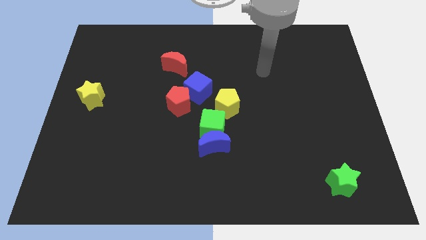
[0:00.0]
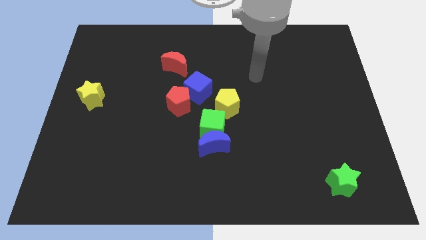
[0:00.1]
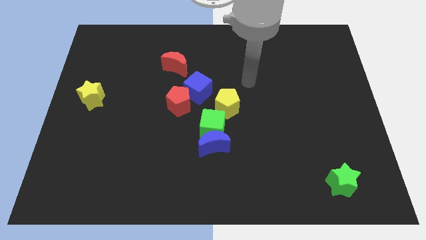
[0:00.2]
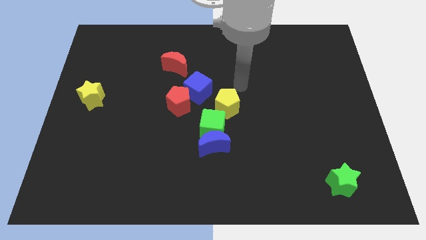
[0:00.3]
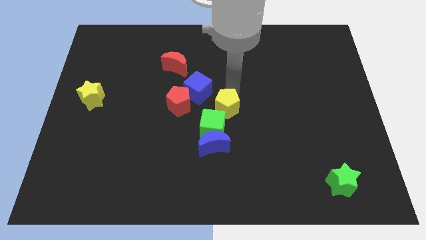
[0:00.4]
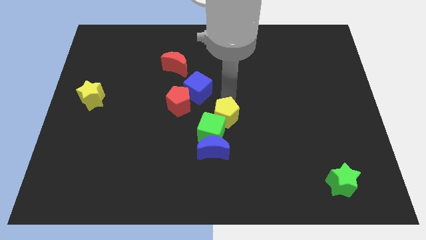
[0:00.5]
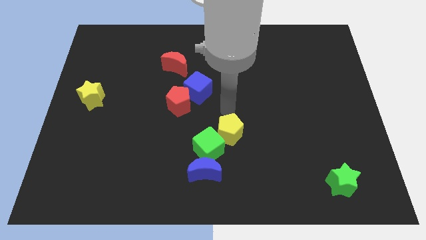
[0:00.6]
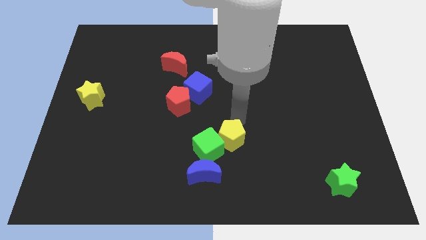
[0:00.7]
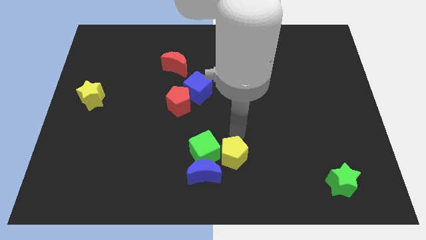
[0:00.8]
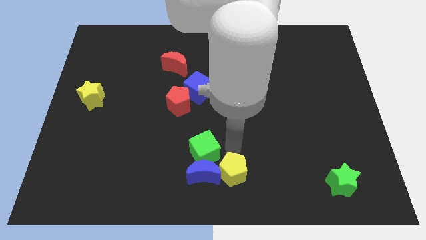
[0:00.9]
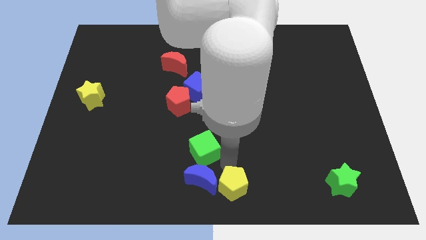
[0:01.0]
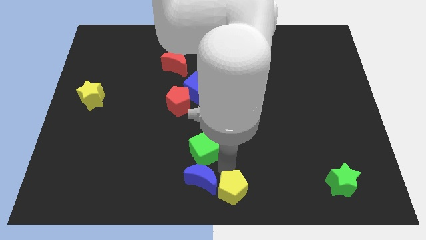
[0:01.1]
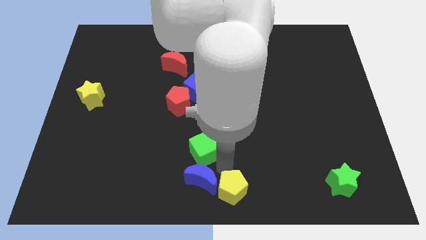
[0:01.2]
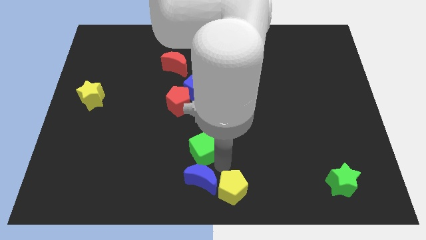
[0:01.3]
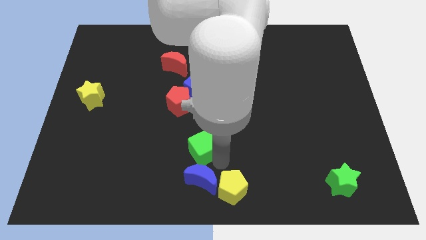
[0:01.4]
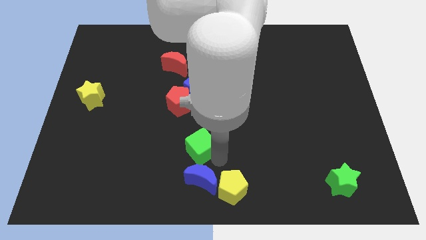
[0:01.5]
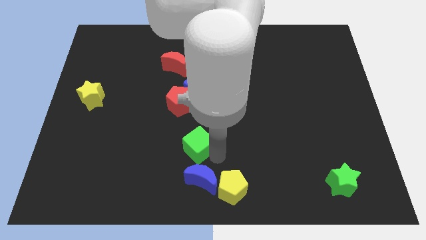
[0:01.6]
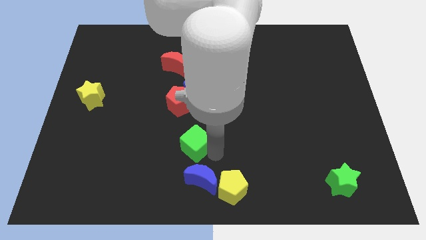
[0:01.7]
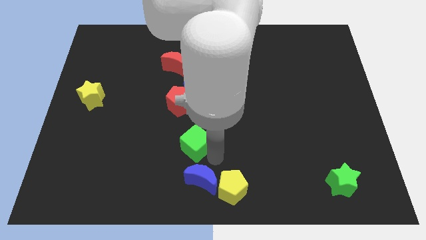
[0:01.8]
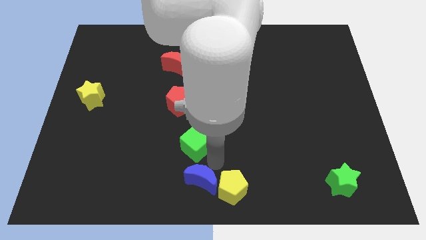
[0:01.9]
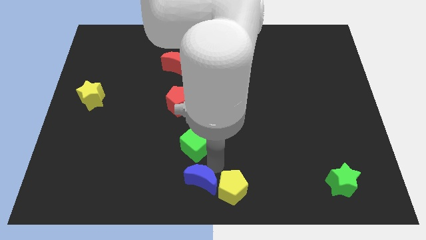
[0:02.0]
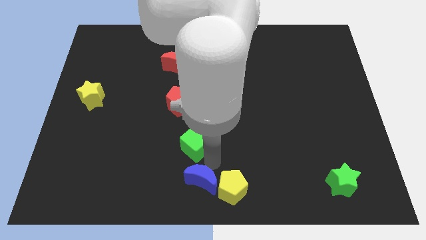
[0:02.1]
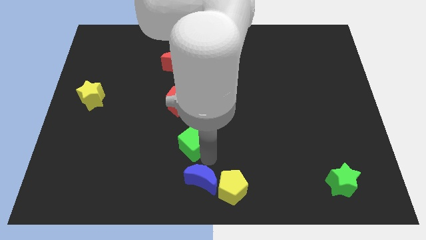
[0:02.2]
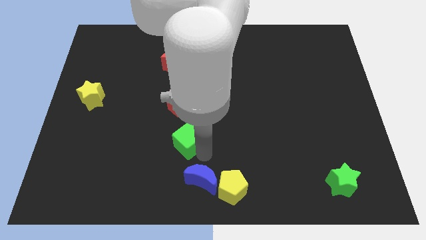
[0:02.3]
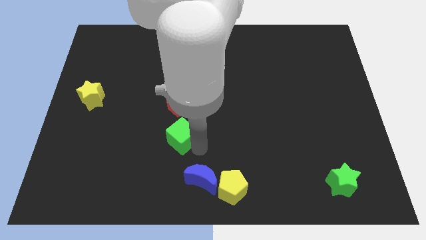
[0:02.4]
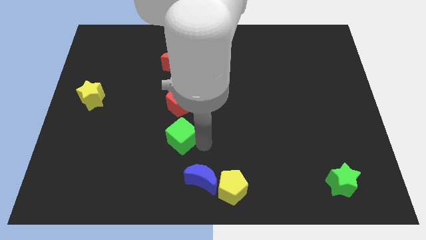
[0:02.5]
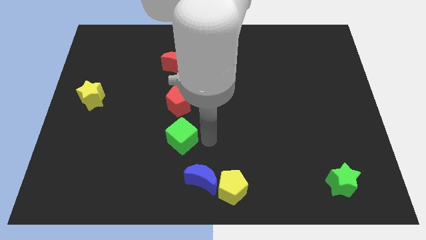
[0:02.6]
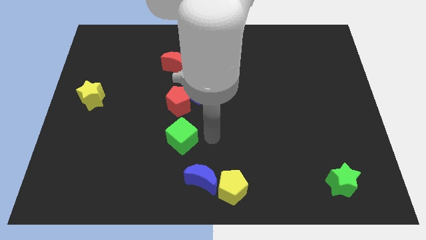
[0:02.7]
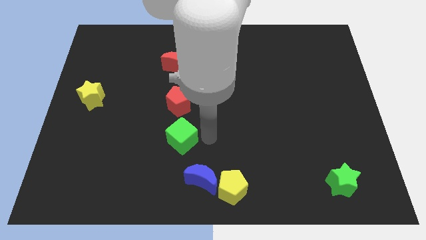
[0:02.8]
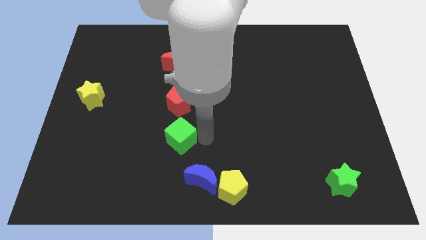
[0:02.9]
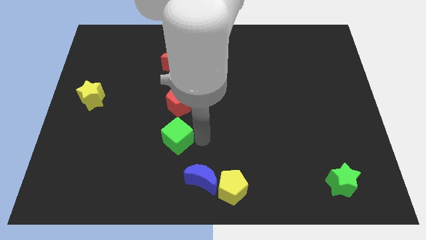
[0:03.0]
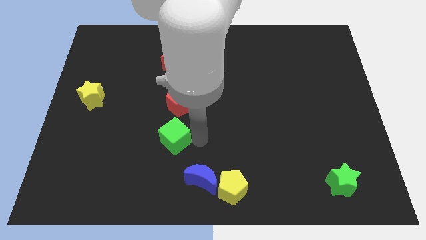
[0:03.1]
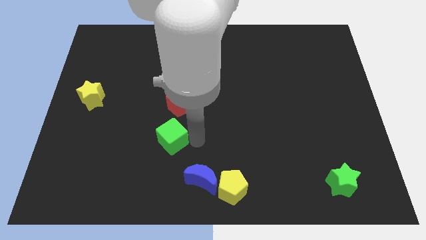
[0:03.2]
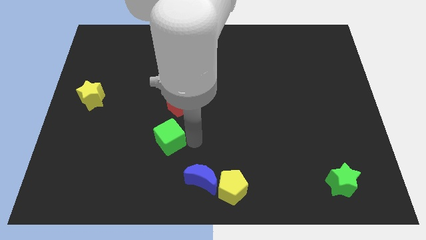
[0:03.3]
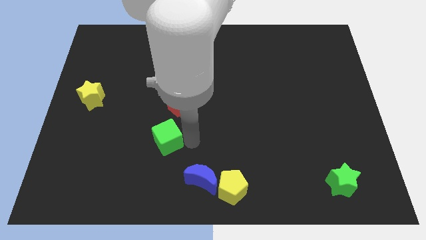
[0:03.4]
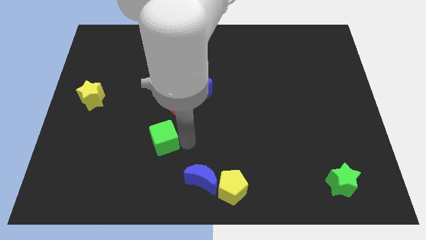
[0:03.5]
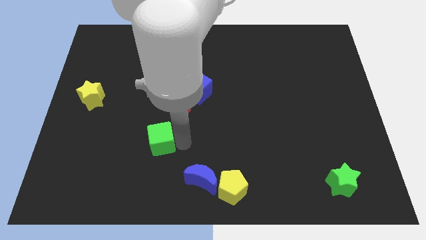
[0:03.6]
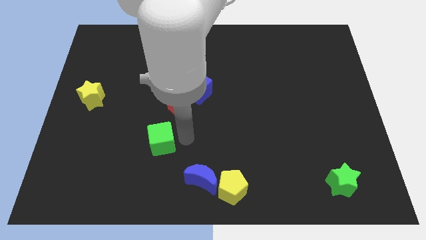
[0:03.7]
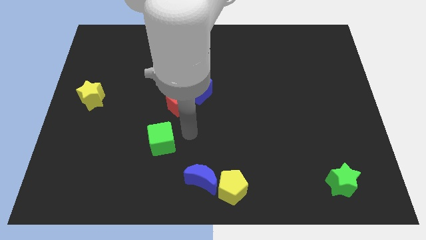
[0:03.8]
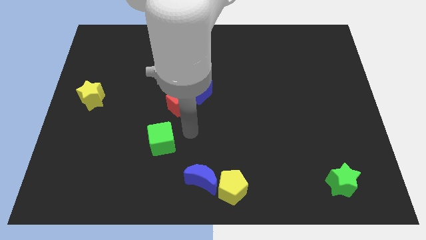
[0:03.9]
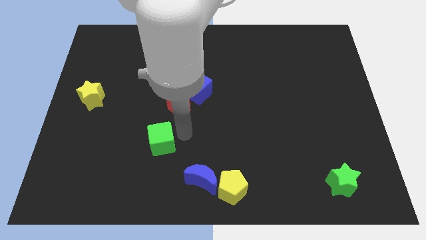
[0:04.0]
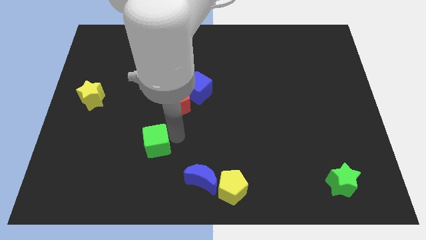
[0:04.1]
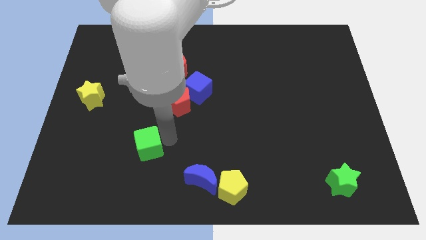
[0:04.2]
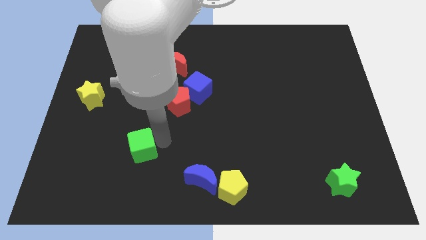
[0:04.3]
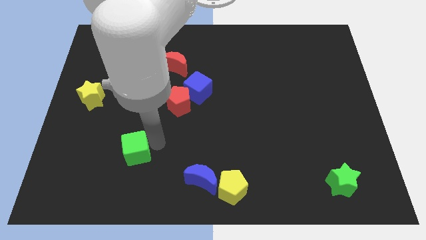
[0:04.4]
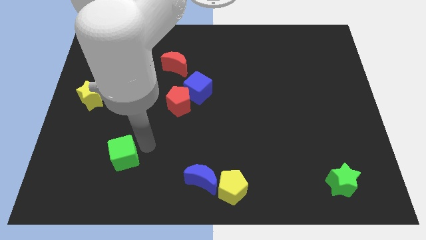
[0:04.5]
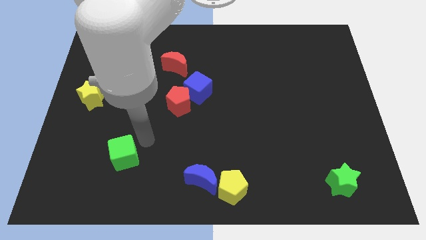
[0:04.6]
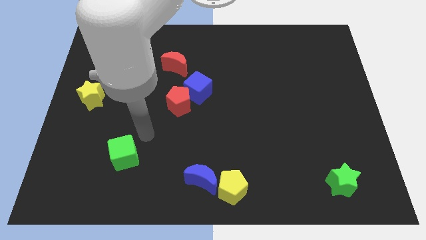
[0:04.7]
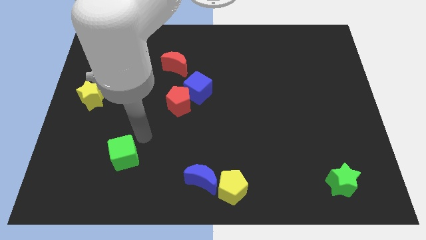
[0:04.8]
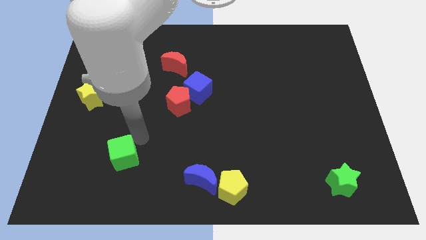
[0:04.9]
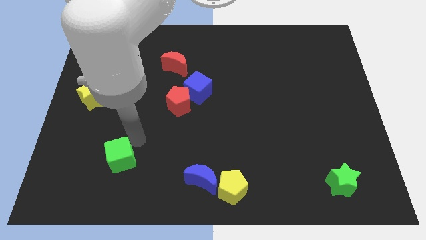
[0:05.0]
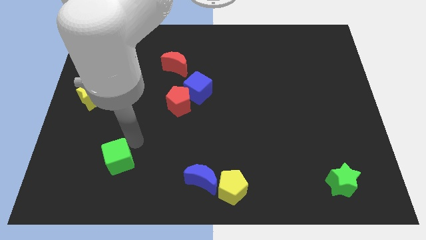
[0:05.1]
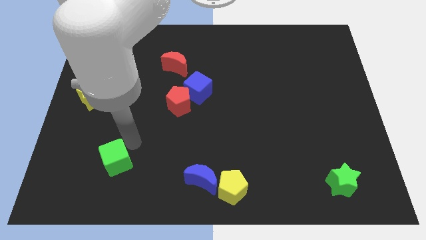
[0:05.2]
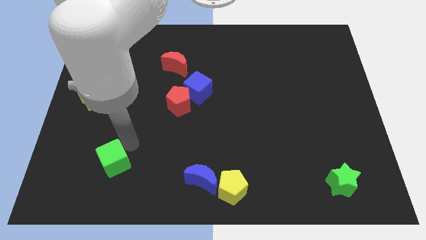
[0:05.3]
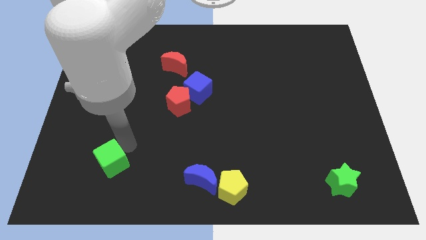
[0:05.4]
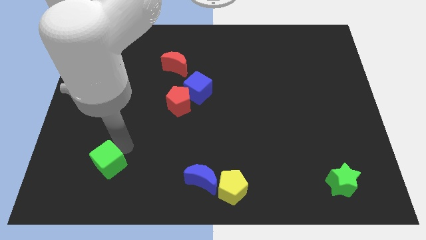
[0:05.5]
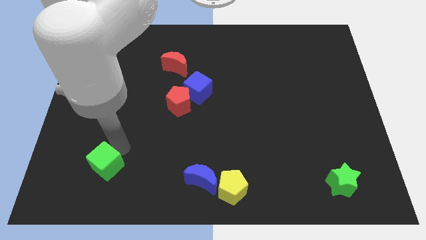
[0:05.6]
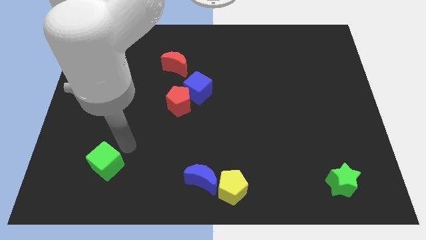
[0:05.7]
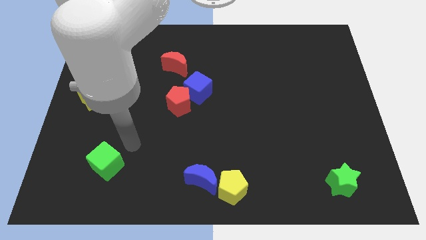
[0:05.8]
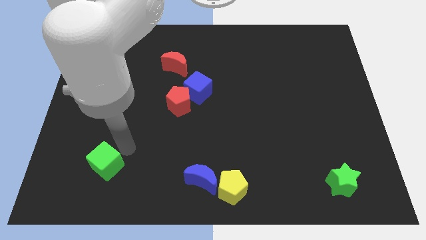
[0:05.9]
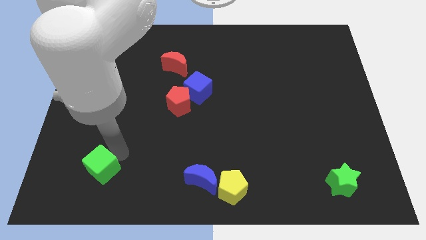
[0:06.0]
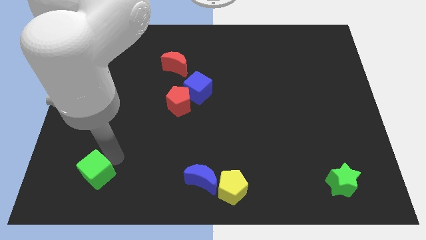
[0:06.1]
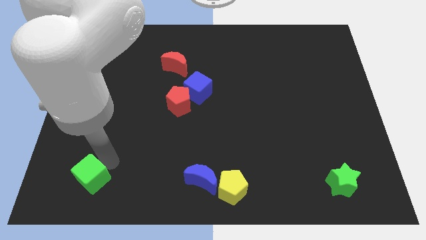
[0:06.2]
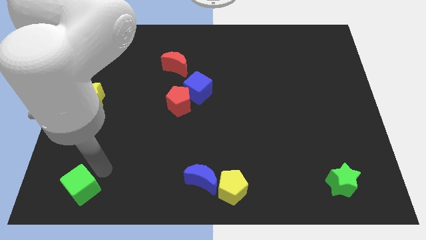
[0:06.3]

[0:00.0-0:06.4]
slide the green cube to the lower left corner

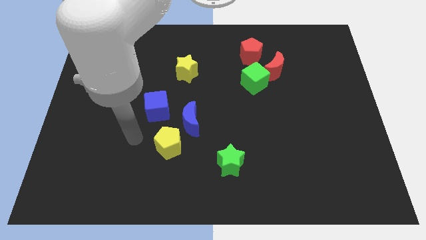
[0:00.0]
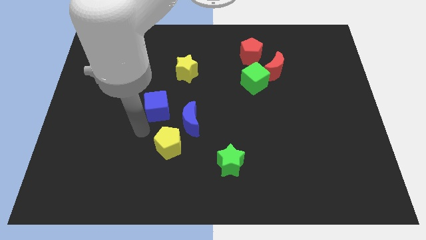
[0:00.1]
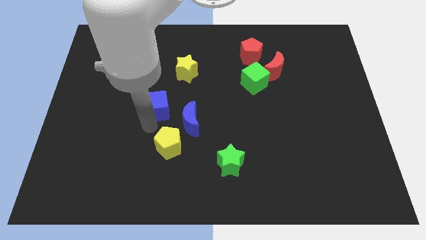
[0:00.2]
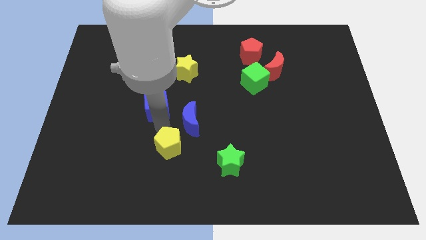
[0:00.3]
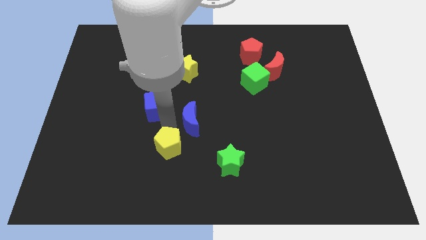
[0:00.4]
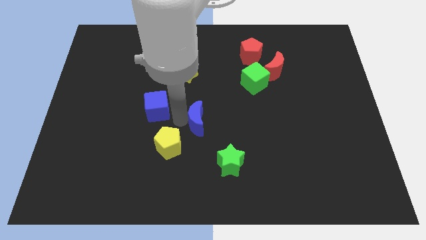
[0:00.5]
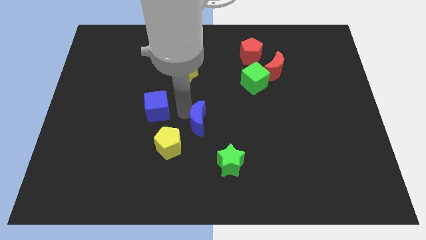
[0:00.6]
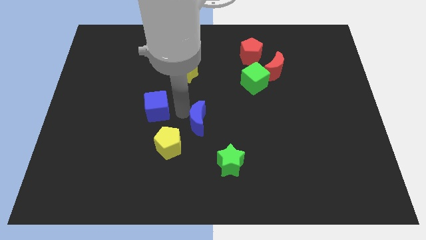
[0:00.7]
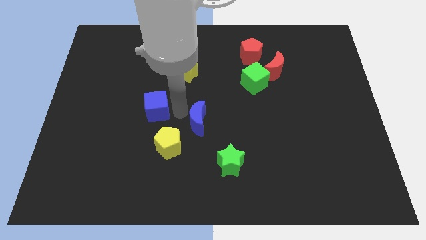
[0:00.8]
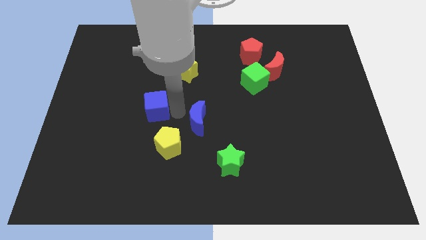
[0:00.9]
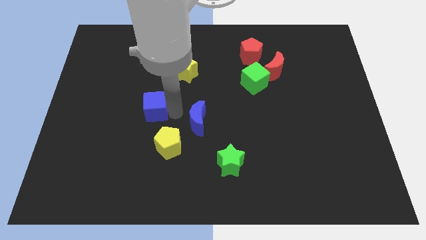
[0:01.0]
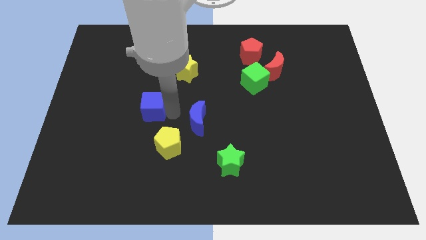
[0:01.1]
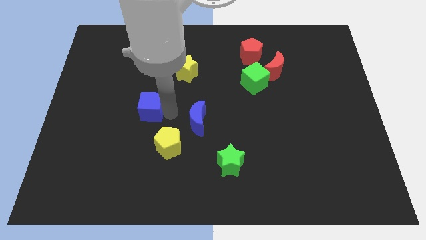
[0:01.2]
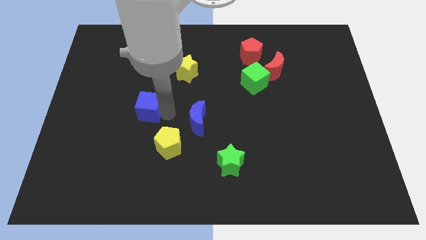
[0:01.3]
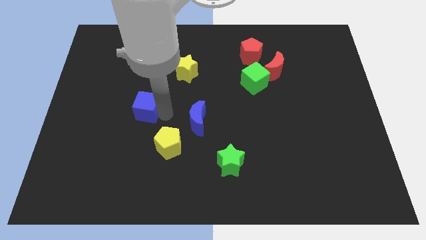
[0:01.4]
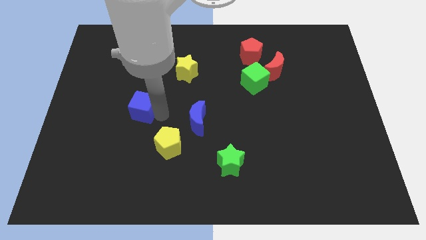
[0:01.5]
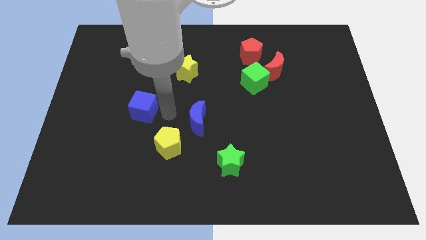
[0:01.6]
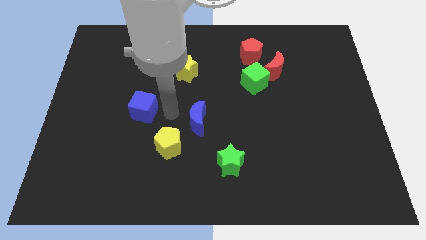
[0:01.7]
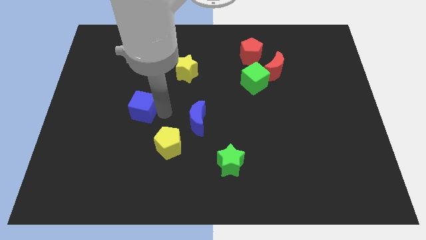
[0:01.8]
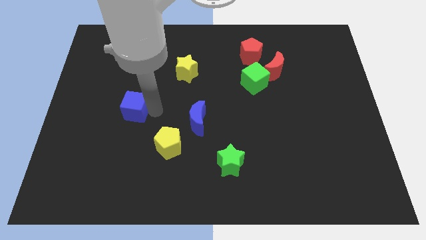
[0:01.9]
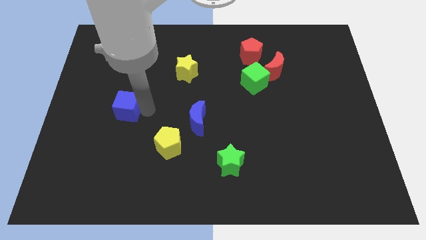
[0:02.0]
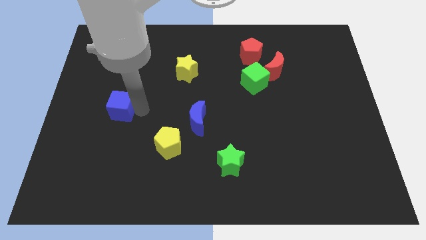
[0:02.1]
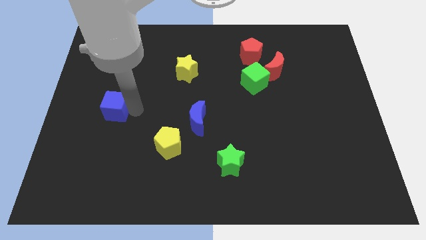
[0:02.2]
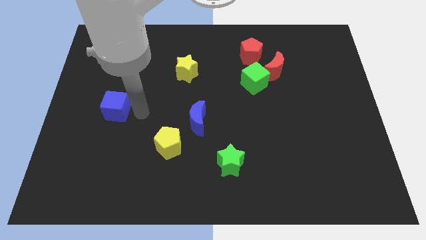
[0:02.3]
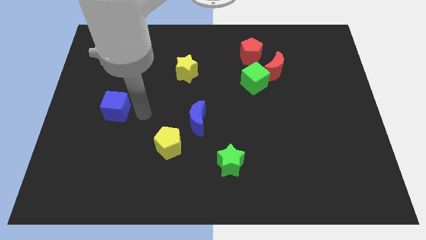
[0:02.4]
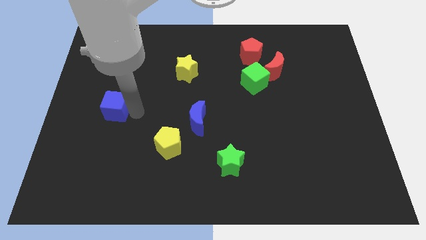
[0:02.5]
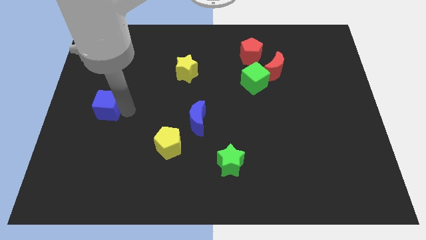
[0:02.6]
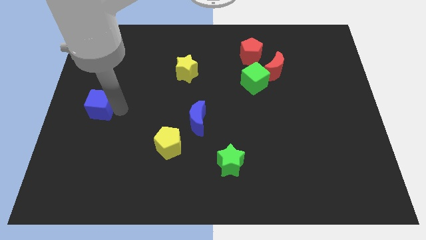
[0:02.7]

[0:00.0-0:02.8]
move the blue cube to the left side of the board
